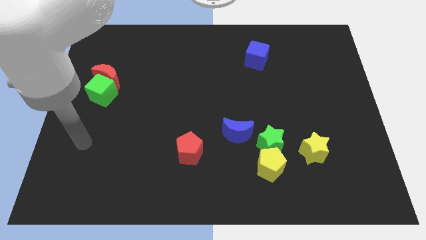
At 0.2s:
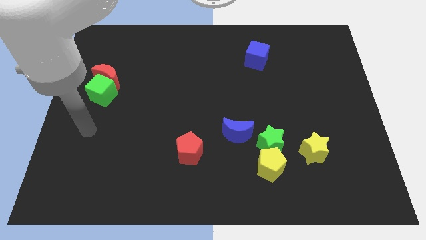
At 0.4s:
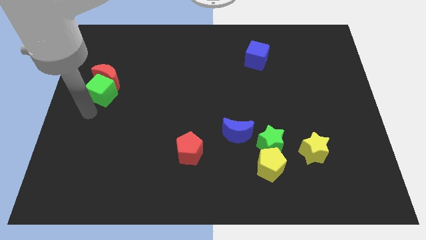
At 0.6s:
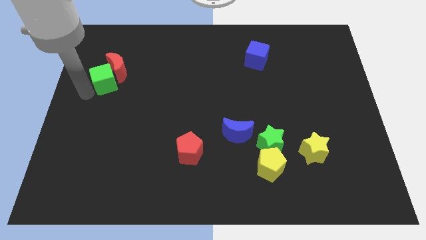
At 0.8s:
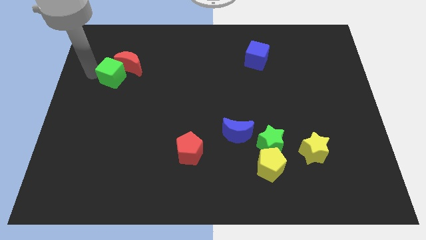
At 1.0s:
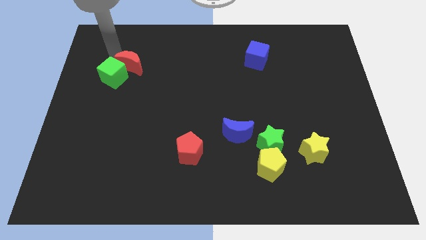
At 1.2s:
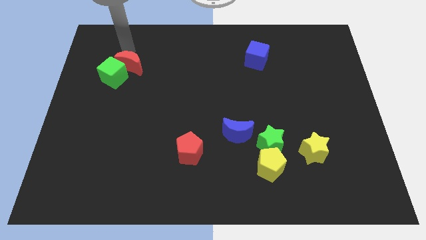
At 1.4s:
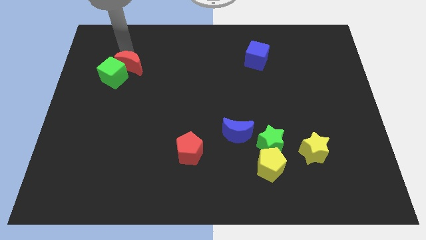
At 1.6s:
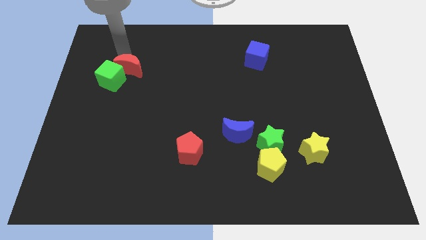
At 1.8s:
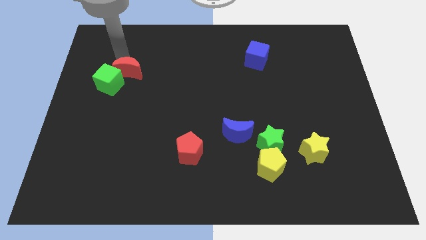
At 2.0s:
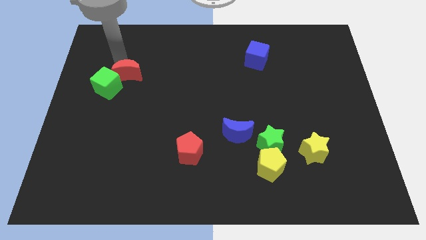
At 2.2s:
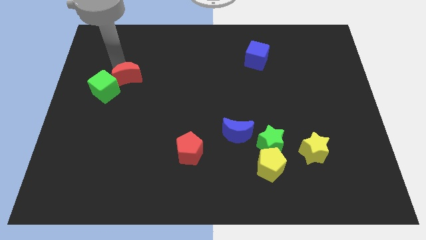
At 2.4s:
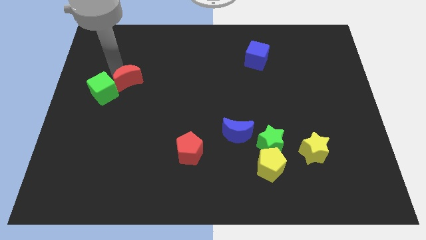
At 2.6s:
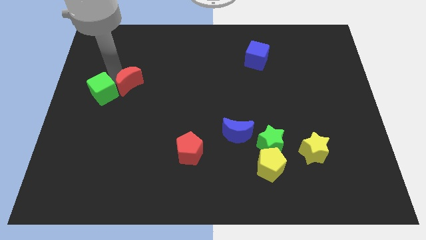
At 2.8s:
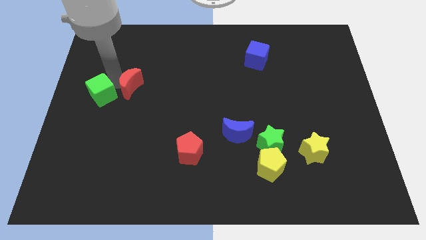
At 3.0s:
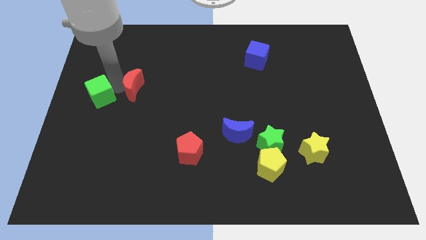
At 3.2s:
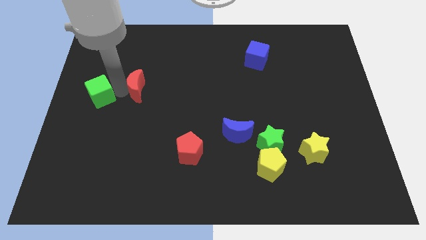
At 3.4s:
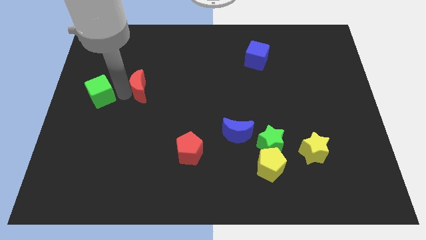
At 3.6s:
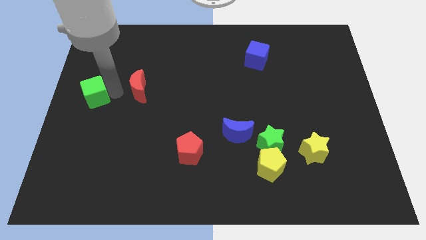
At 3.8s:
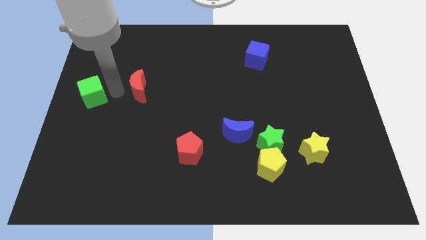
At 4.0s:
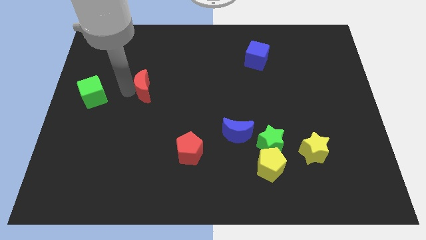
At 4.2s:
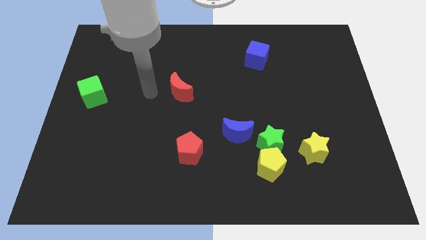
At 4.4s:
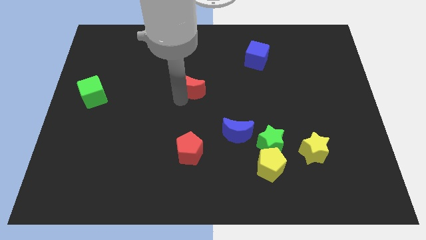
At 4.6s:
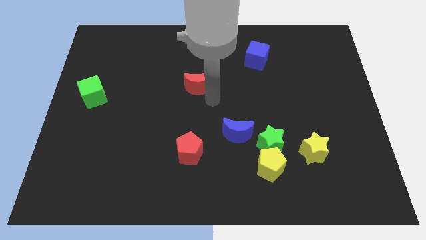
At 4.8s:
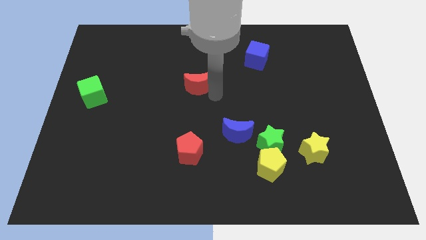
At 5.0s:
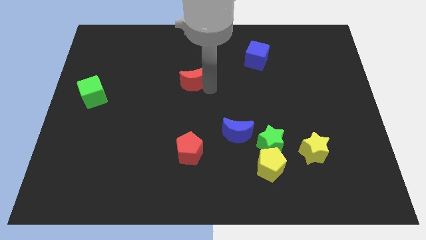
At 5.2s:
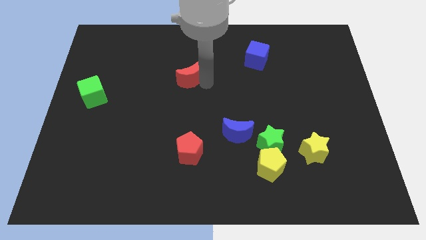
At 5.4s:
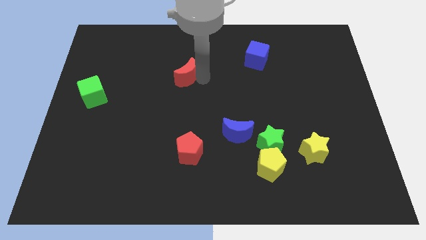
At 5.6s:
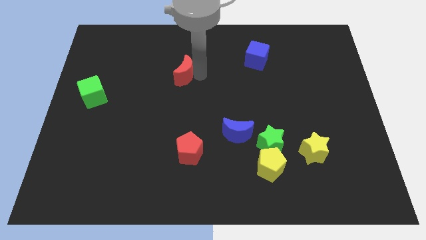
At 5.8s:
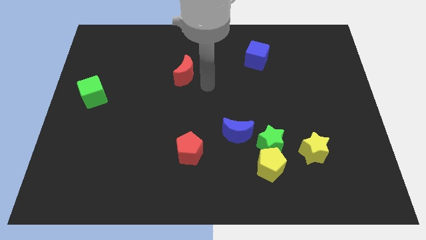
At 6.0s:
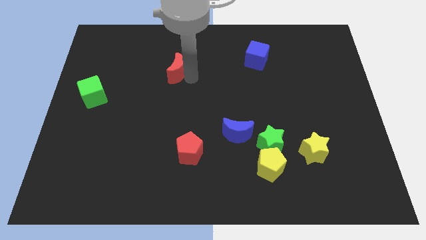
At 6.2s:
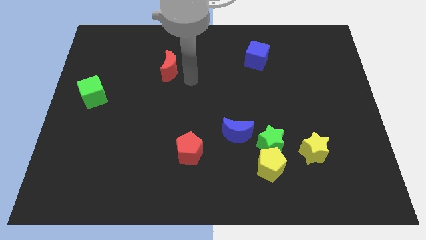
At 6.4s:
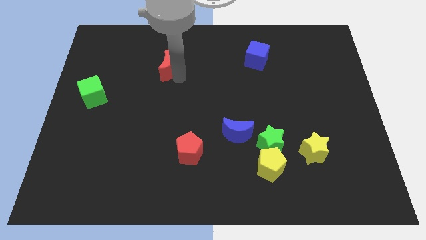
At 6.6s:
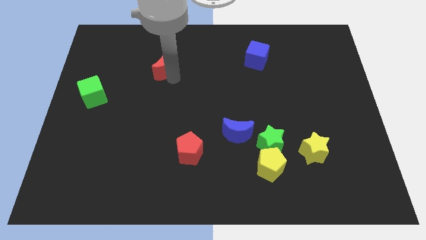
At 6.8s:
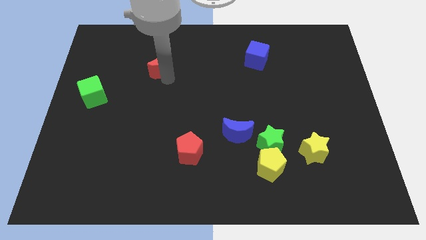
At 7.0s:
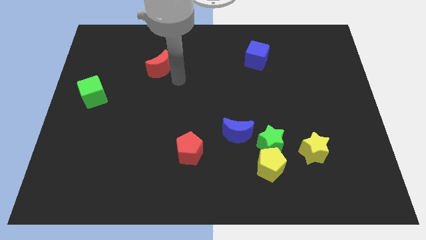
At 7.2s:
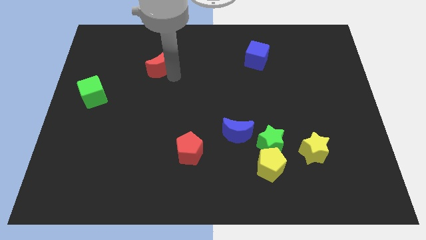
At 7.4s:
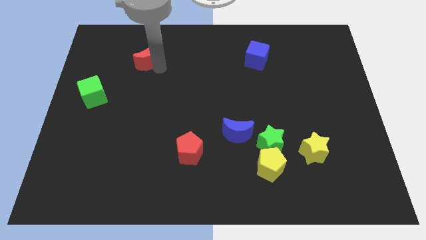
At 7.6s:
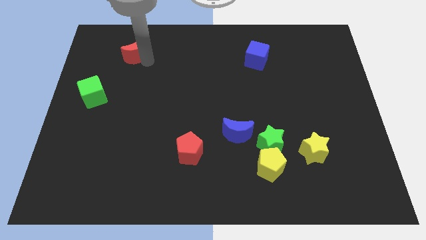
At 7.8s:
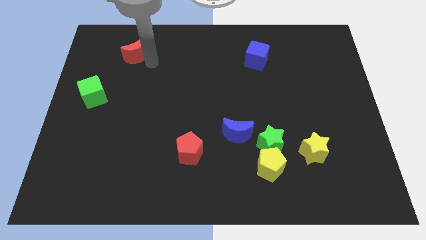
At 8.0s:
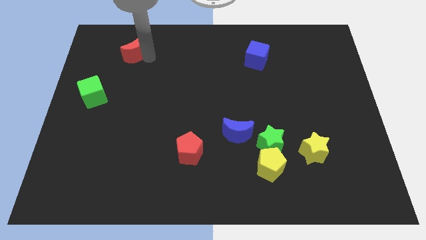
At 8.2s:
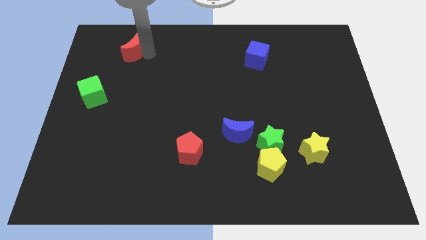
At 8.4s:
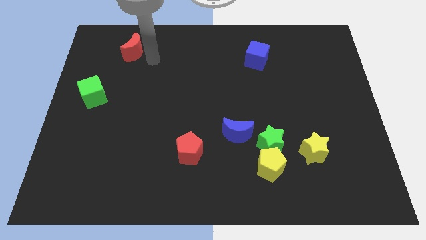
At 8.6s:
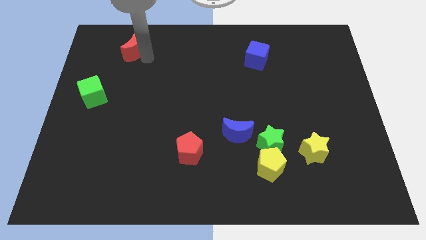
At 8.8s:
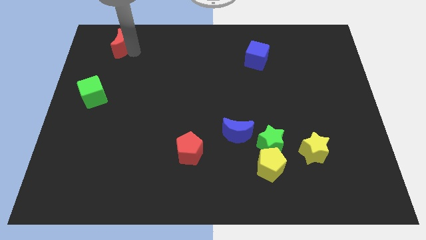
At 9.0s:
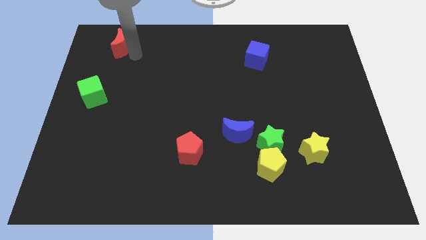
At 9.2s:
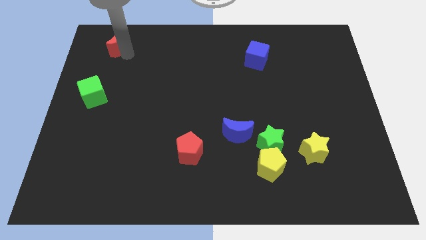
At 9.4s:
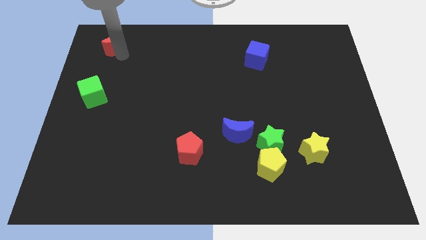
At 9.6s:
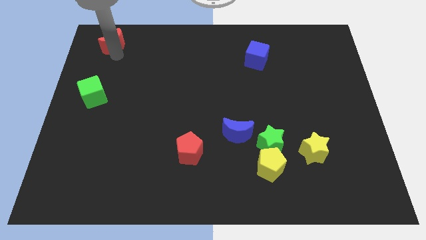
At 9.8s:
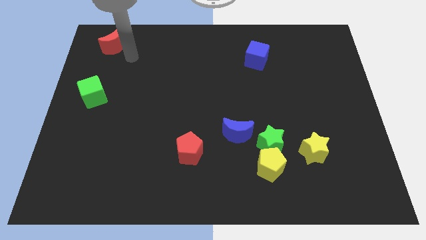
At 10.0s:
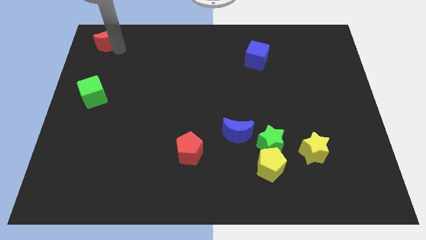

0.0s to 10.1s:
put the red moon to the top left

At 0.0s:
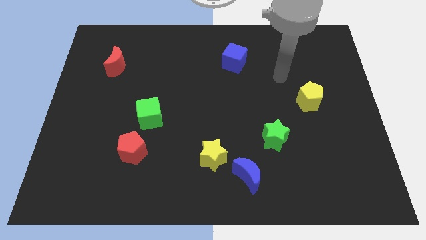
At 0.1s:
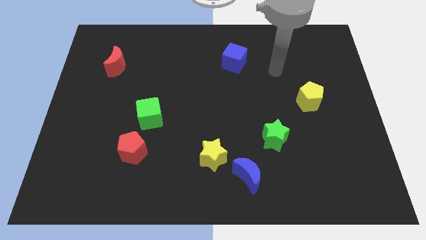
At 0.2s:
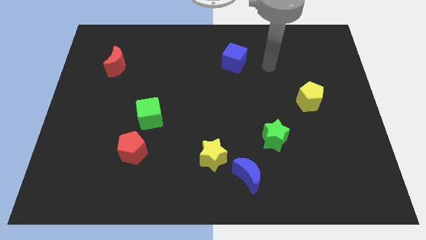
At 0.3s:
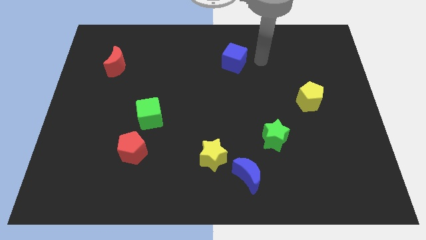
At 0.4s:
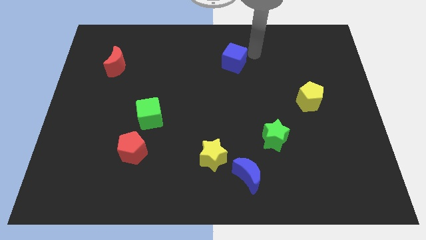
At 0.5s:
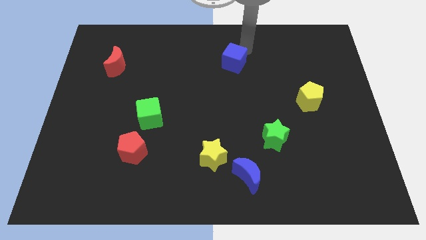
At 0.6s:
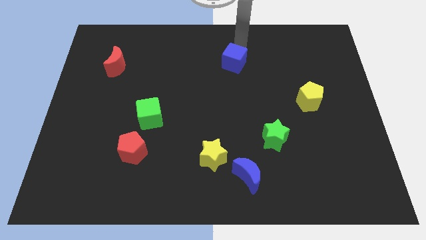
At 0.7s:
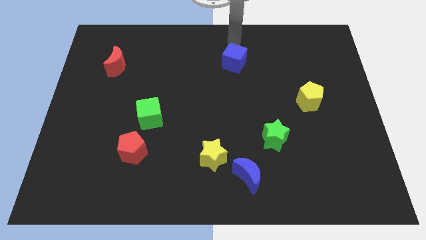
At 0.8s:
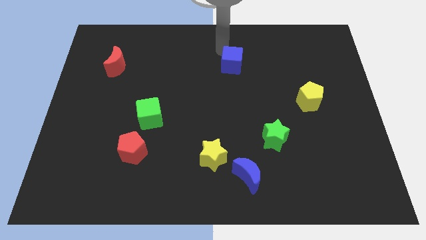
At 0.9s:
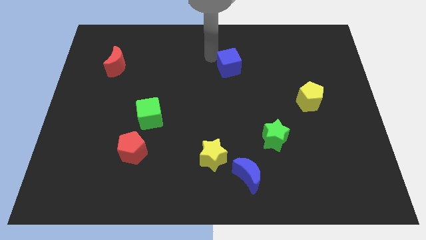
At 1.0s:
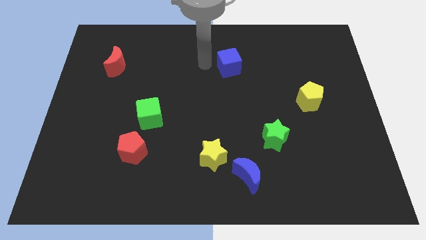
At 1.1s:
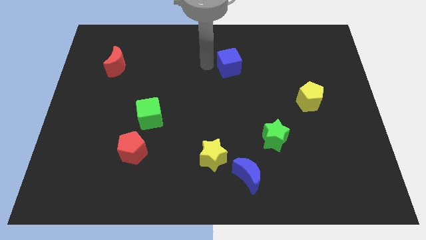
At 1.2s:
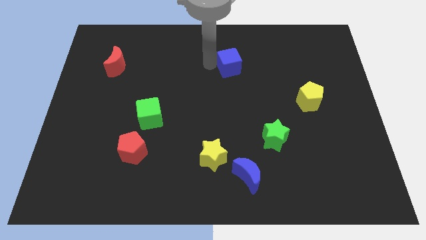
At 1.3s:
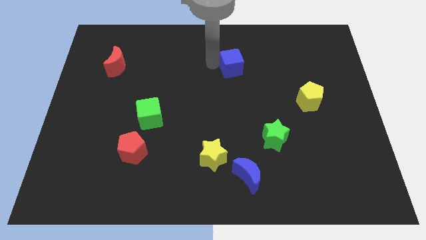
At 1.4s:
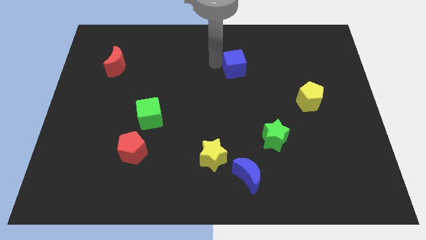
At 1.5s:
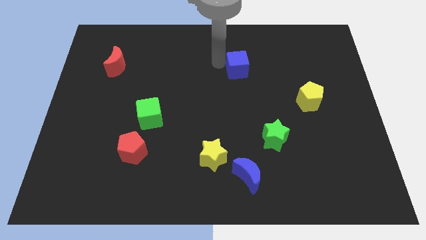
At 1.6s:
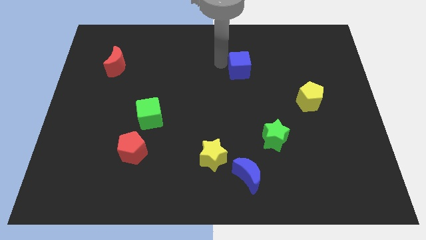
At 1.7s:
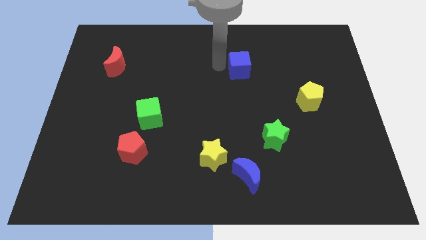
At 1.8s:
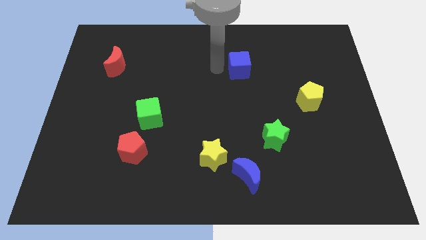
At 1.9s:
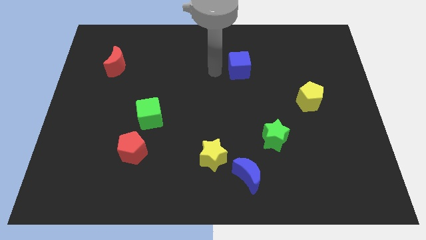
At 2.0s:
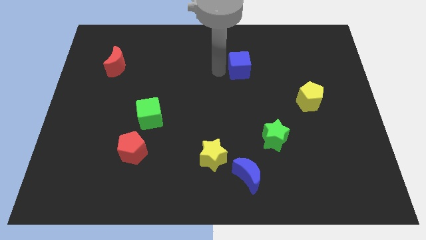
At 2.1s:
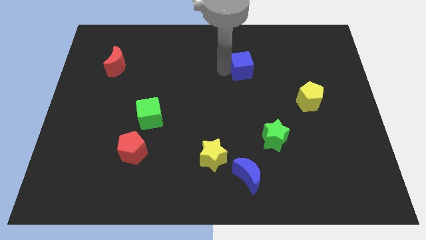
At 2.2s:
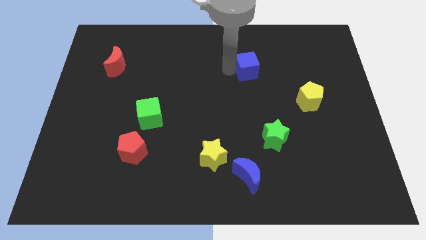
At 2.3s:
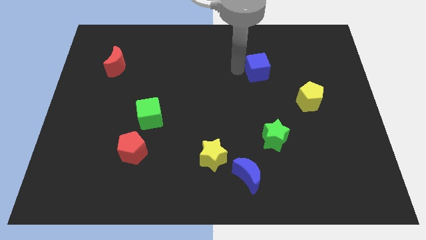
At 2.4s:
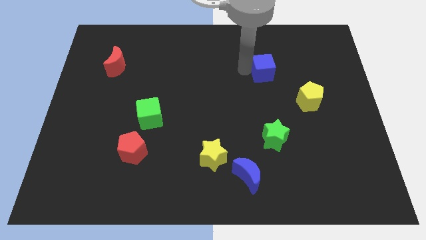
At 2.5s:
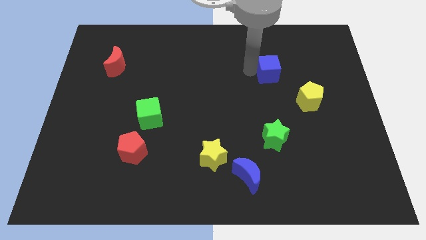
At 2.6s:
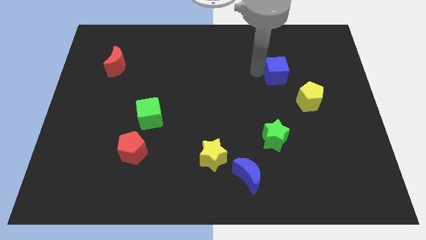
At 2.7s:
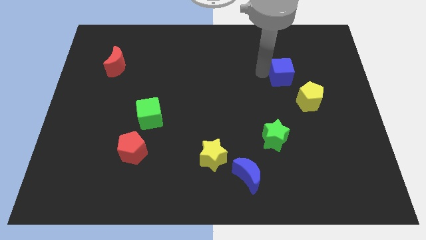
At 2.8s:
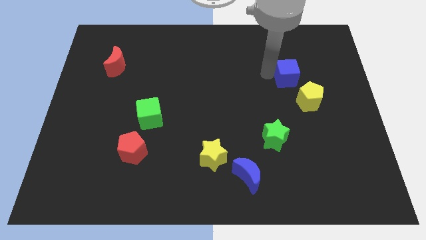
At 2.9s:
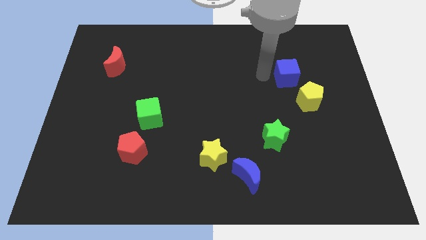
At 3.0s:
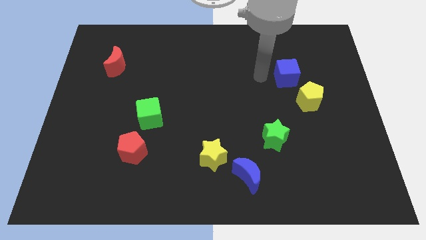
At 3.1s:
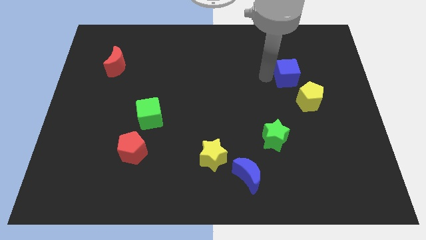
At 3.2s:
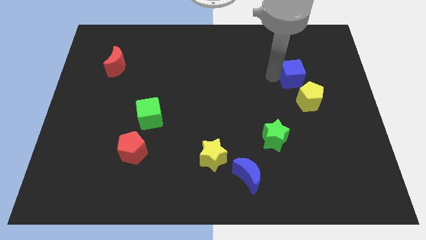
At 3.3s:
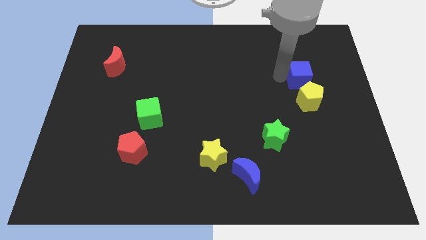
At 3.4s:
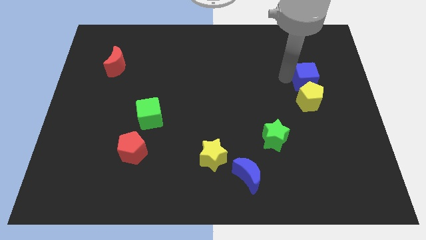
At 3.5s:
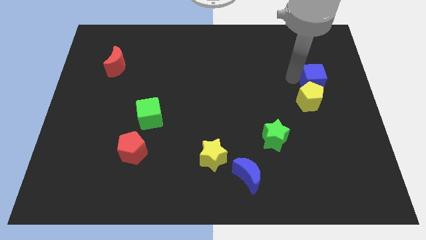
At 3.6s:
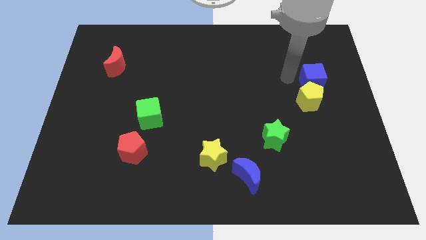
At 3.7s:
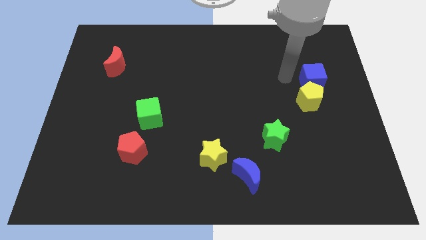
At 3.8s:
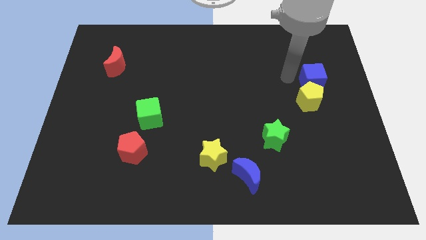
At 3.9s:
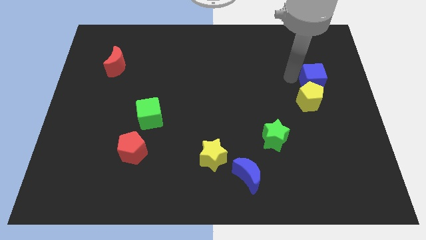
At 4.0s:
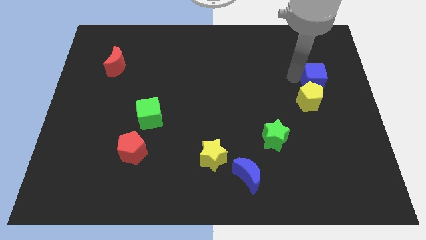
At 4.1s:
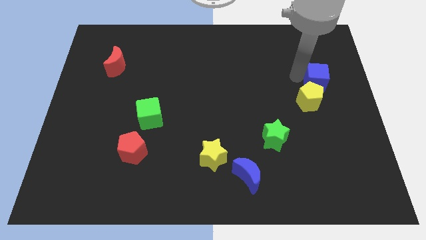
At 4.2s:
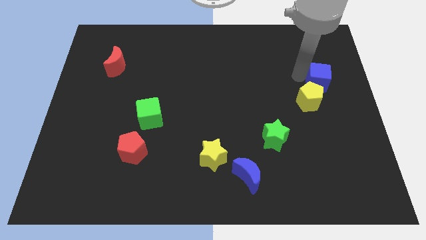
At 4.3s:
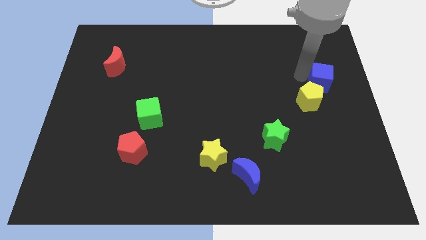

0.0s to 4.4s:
push the blue cube to the right side of the board
